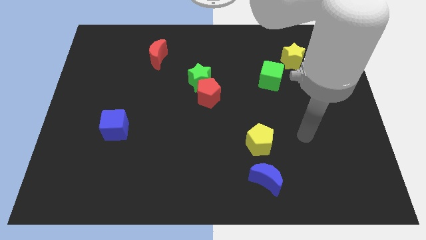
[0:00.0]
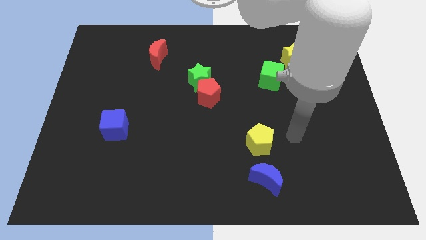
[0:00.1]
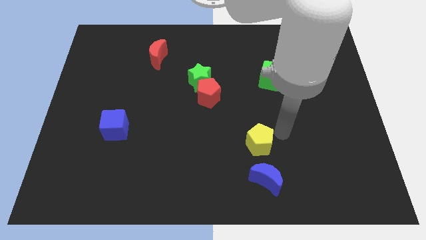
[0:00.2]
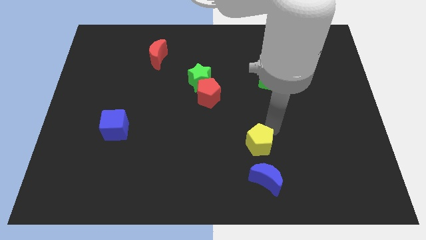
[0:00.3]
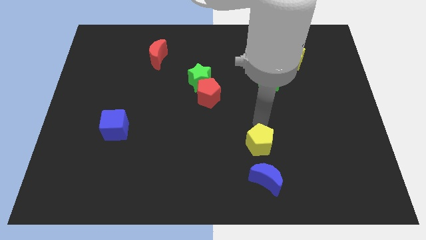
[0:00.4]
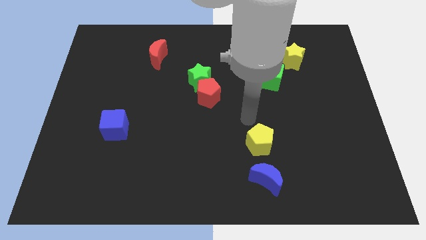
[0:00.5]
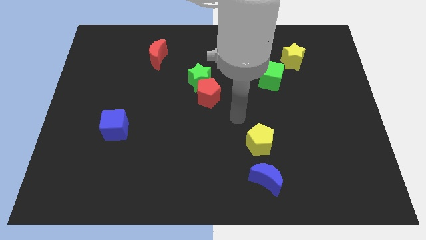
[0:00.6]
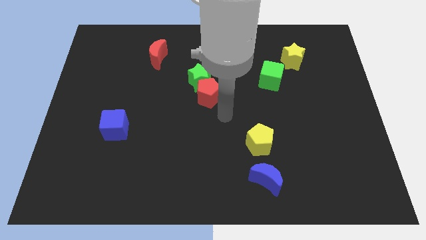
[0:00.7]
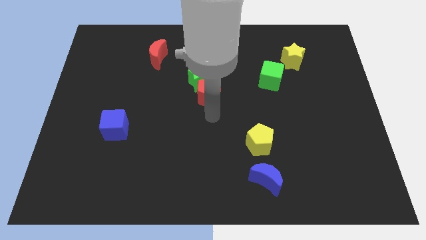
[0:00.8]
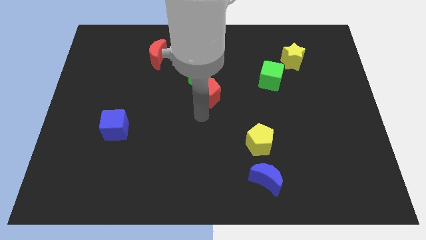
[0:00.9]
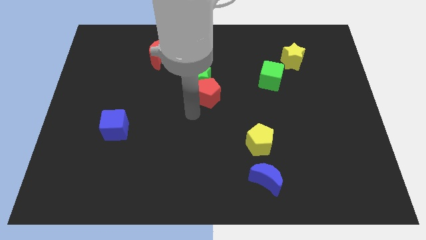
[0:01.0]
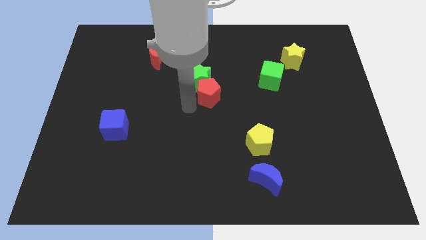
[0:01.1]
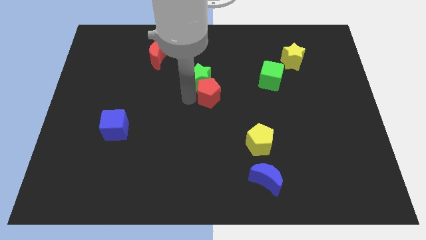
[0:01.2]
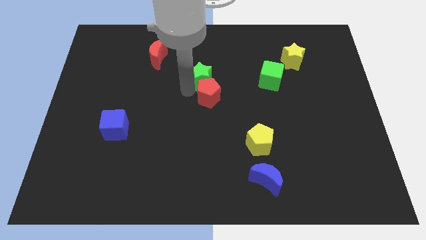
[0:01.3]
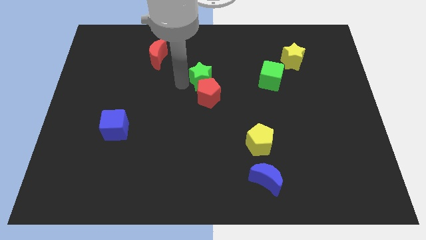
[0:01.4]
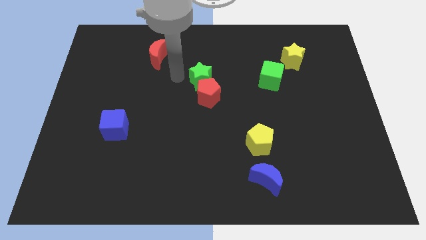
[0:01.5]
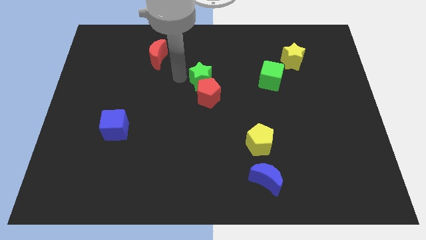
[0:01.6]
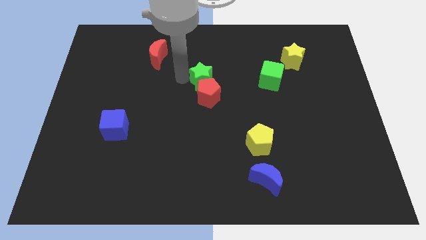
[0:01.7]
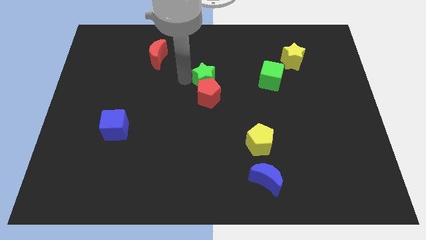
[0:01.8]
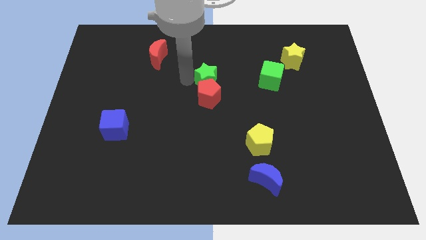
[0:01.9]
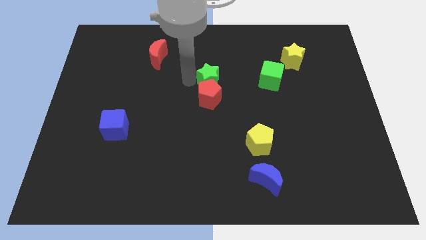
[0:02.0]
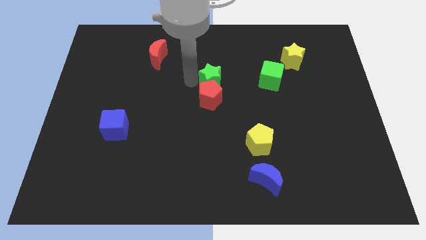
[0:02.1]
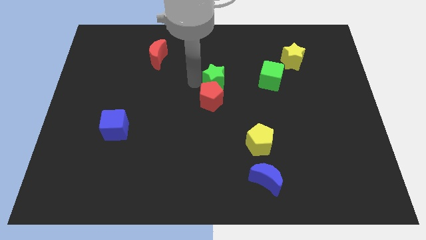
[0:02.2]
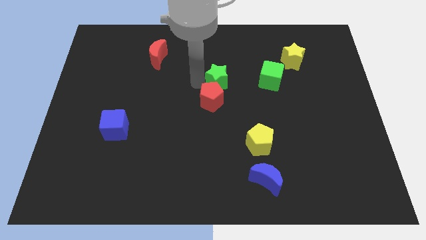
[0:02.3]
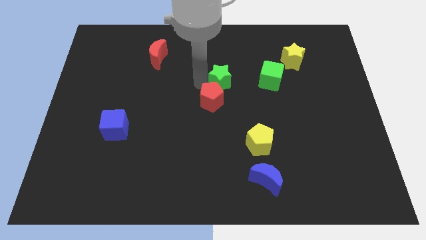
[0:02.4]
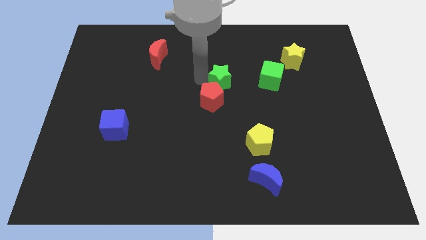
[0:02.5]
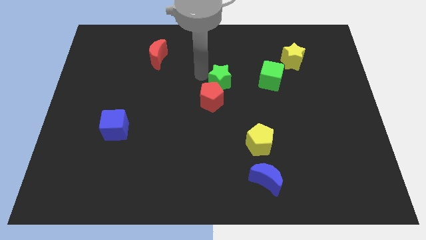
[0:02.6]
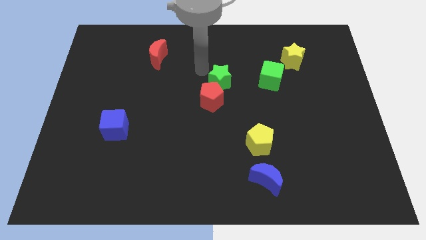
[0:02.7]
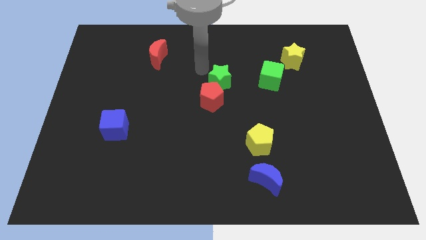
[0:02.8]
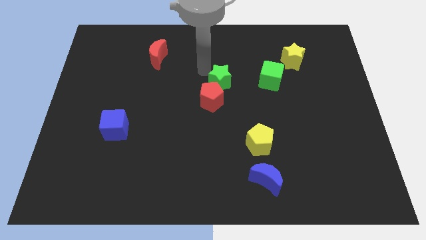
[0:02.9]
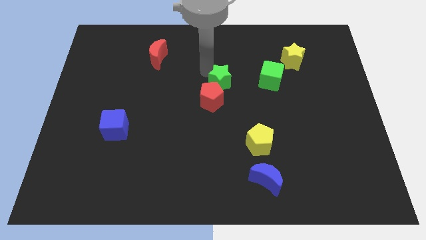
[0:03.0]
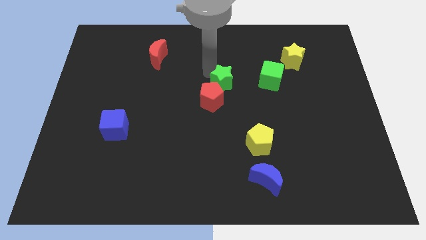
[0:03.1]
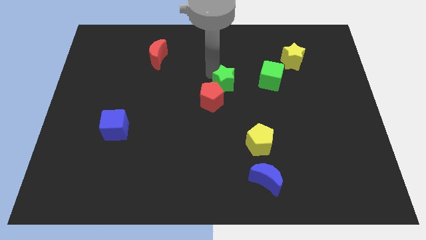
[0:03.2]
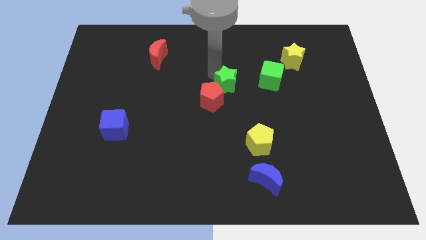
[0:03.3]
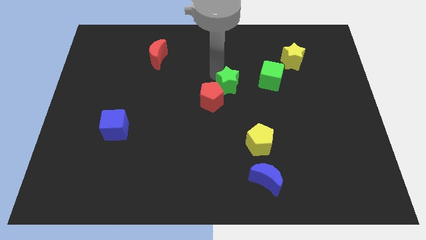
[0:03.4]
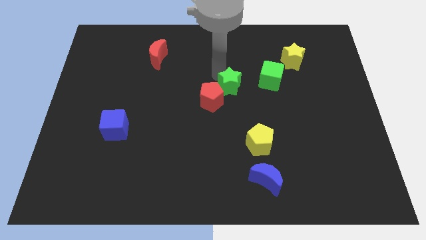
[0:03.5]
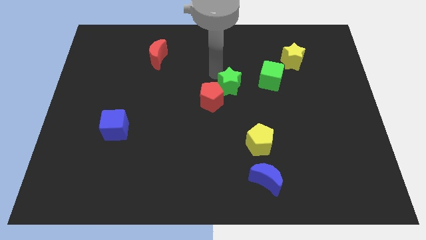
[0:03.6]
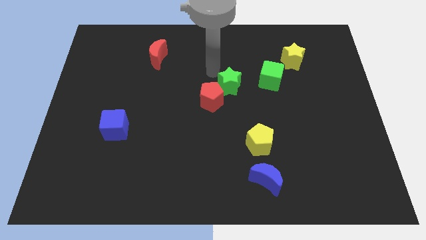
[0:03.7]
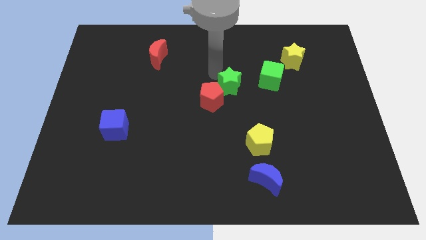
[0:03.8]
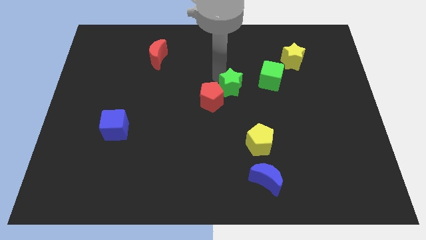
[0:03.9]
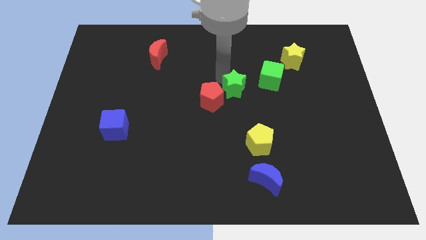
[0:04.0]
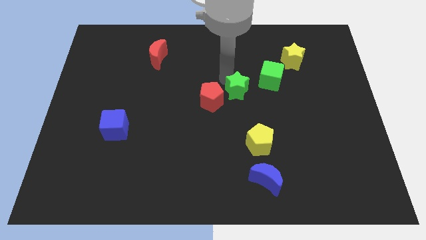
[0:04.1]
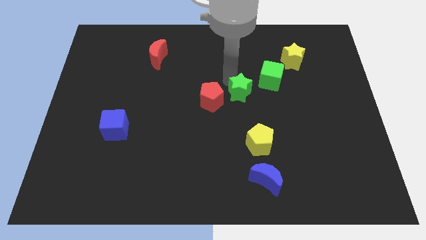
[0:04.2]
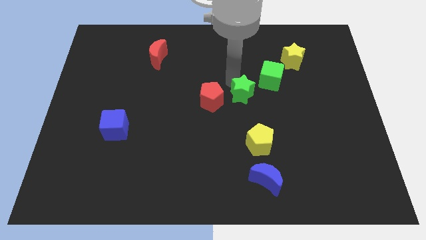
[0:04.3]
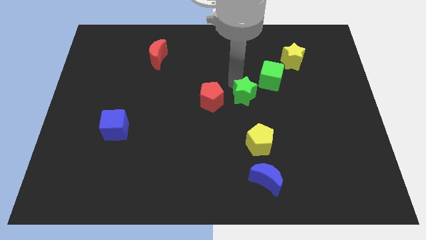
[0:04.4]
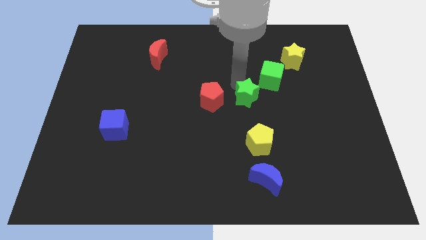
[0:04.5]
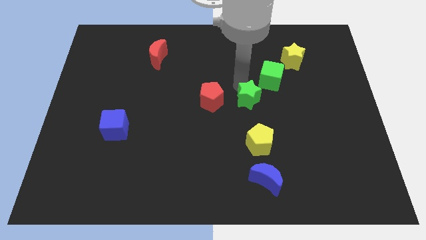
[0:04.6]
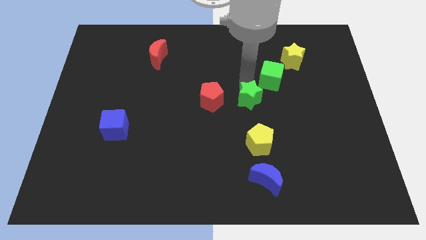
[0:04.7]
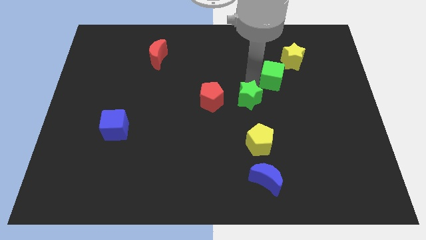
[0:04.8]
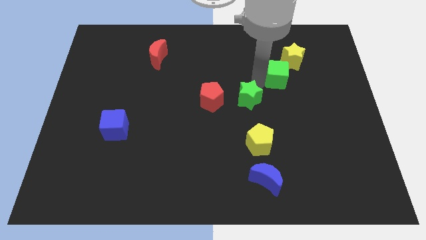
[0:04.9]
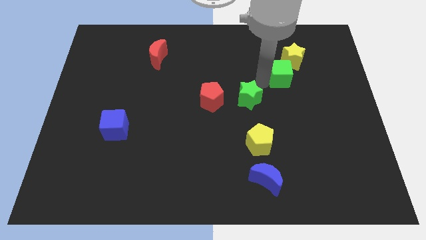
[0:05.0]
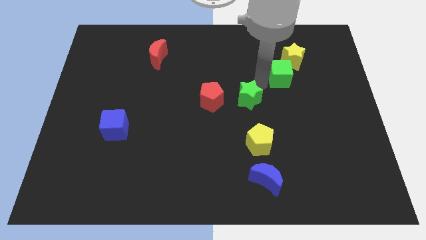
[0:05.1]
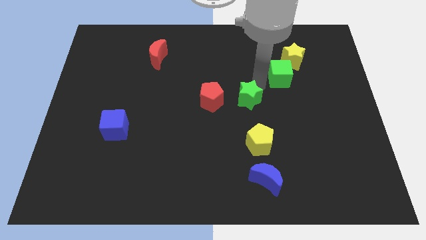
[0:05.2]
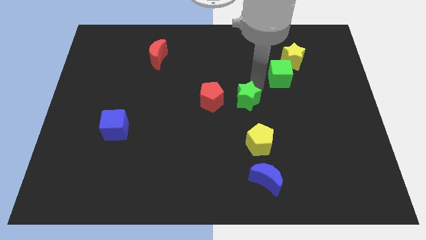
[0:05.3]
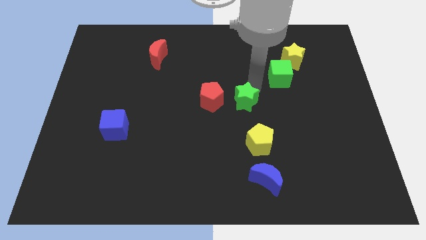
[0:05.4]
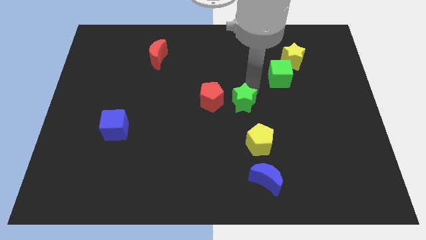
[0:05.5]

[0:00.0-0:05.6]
put the green star to the bottom right side of the red pentagon

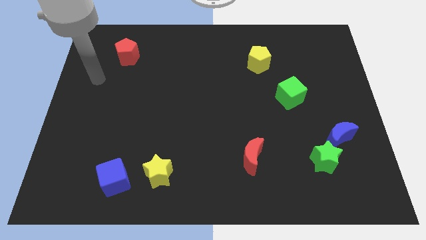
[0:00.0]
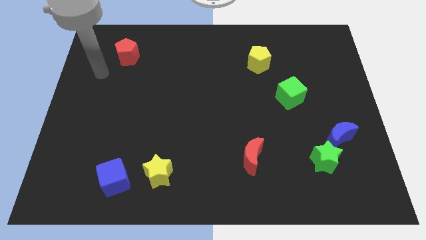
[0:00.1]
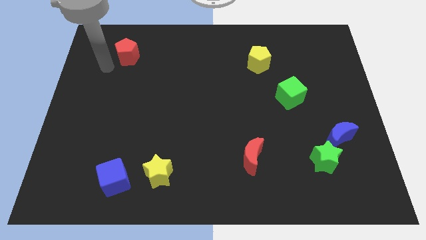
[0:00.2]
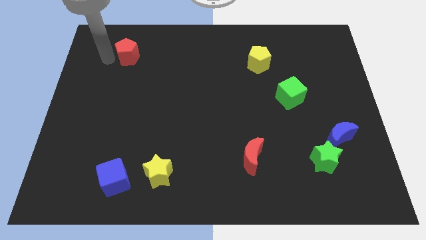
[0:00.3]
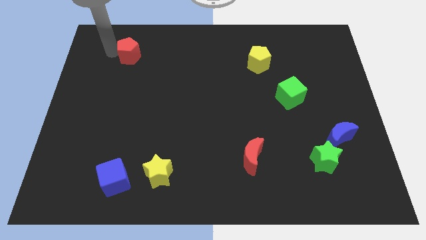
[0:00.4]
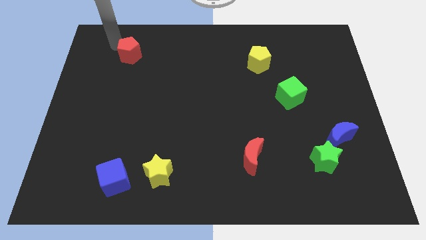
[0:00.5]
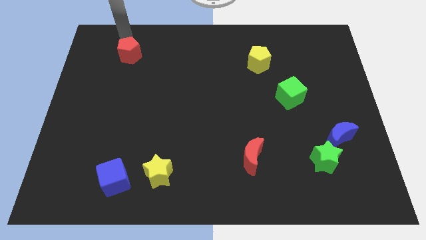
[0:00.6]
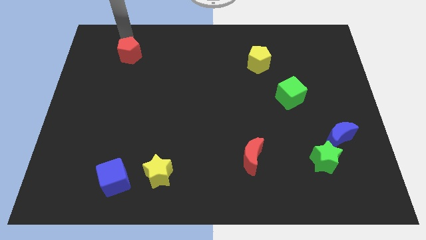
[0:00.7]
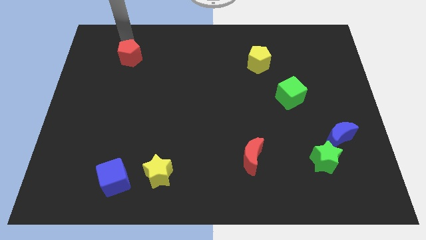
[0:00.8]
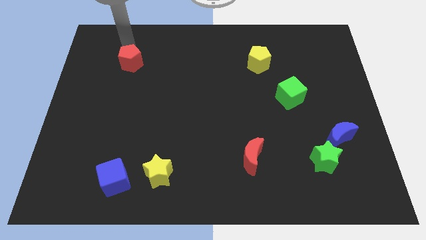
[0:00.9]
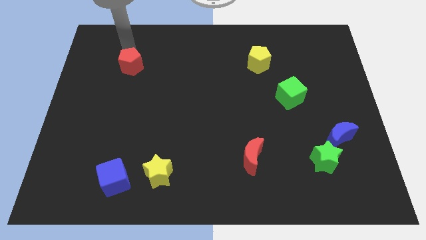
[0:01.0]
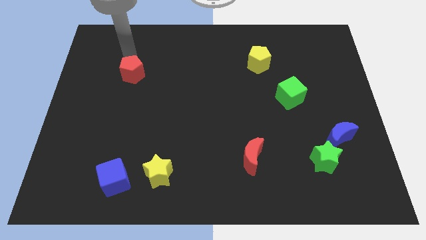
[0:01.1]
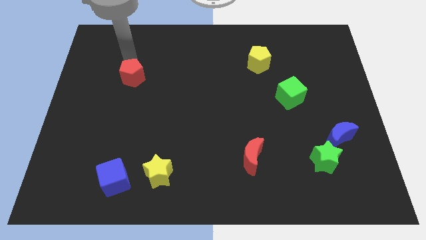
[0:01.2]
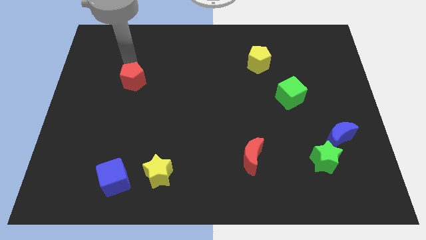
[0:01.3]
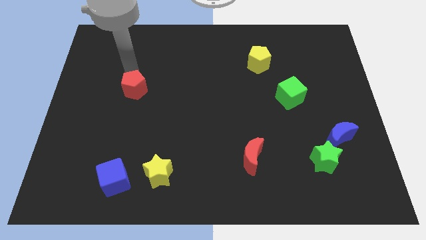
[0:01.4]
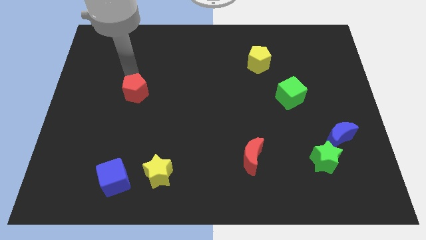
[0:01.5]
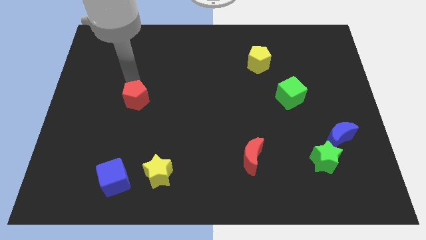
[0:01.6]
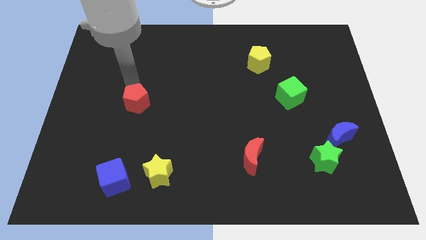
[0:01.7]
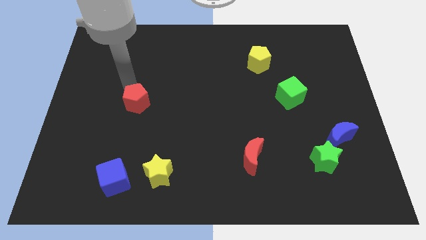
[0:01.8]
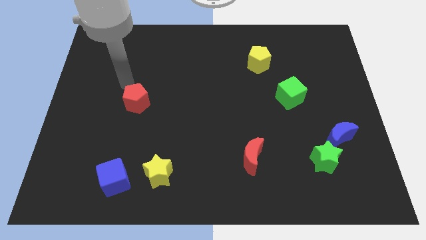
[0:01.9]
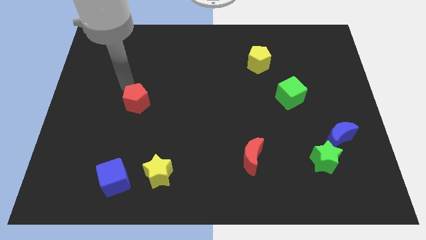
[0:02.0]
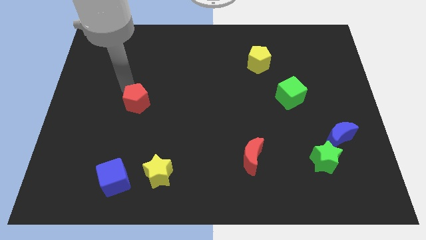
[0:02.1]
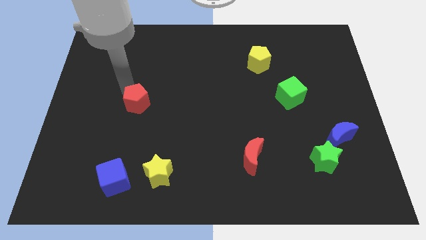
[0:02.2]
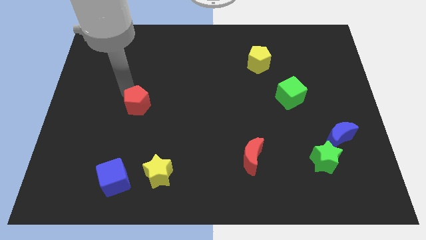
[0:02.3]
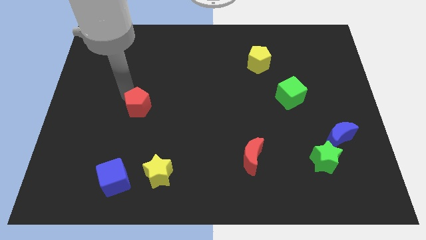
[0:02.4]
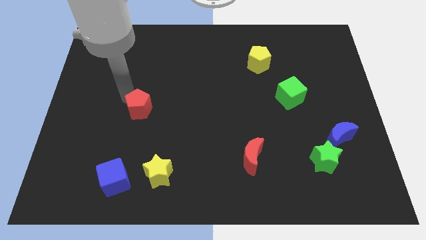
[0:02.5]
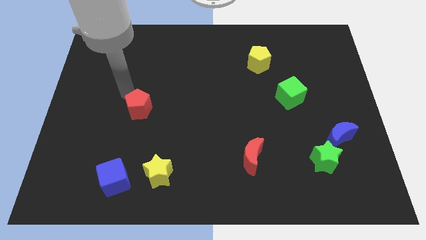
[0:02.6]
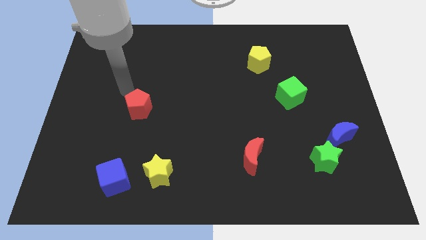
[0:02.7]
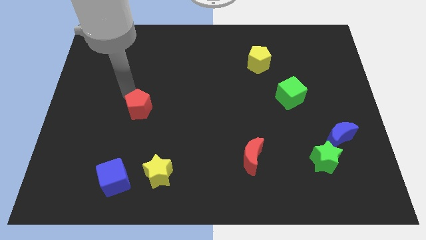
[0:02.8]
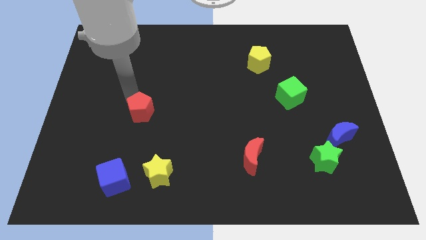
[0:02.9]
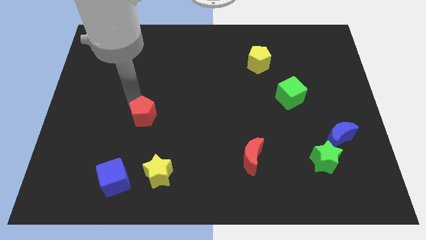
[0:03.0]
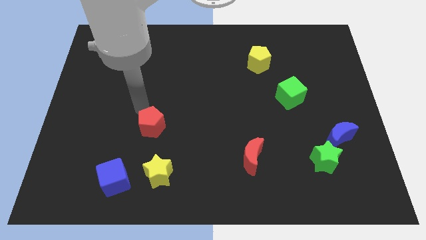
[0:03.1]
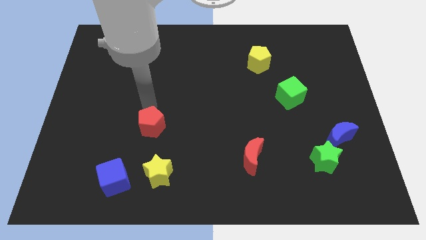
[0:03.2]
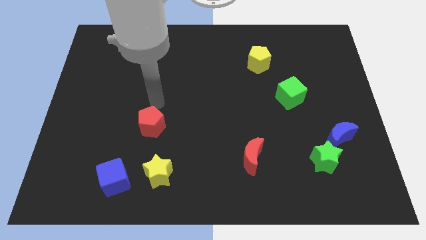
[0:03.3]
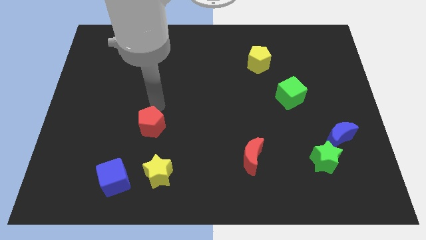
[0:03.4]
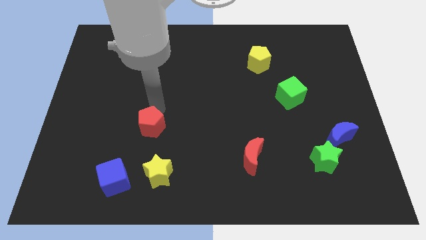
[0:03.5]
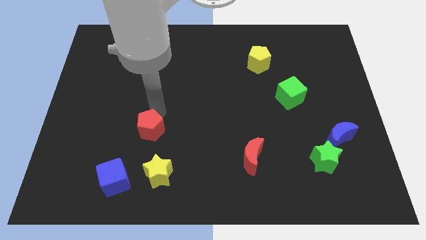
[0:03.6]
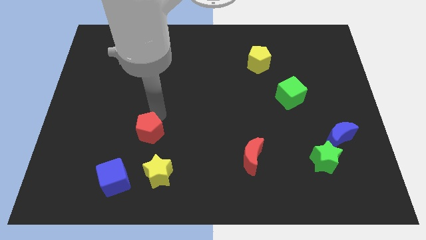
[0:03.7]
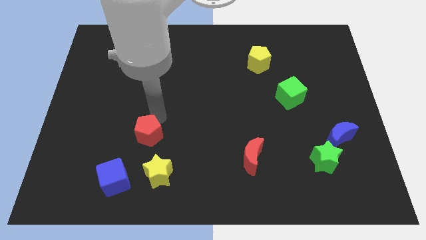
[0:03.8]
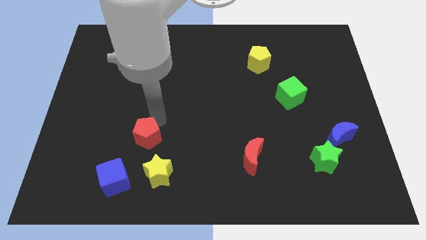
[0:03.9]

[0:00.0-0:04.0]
put the red pentagon to the top right side of the blue cube
